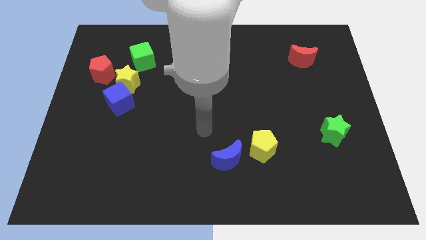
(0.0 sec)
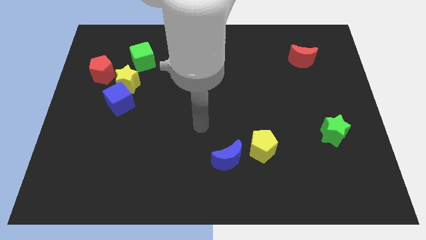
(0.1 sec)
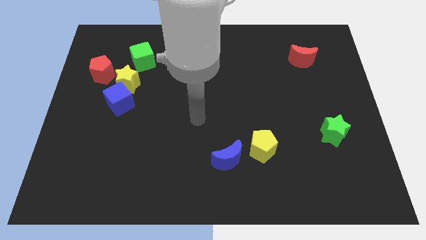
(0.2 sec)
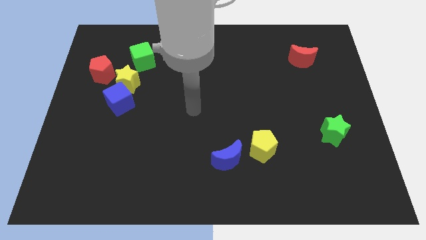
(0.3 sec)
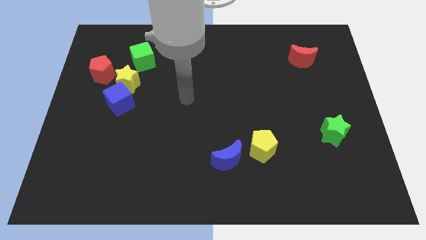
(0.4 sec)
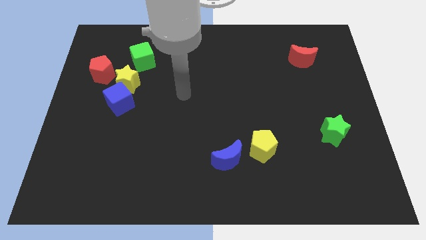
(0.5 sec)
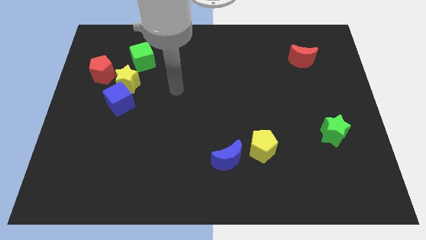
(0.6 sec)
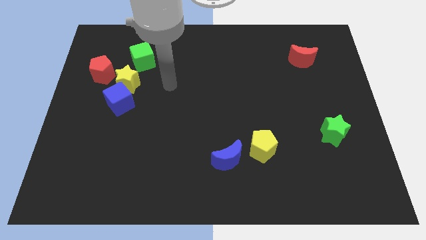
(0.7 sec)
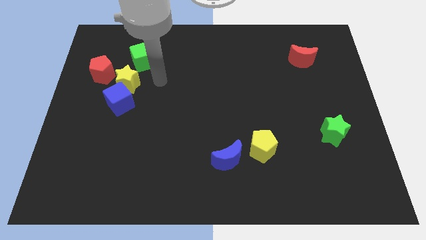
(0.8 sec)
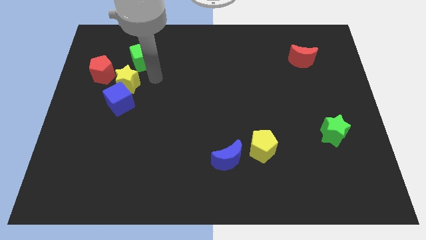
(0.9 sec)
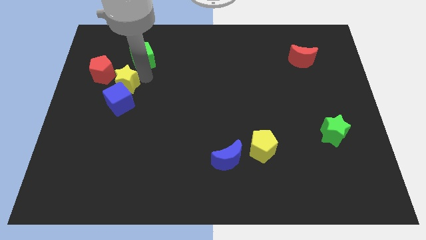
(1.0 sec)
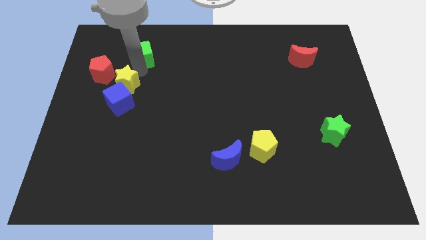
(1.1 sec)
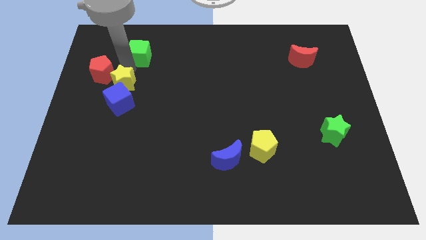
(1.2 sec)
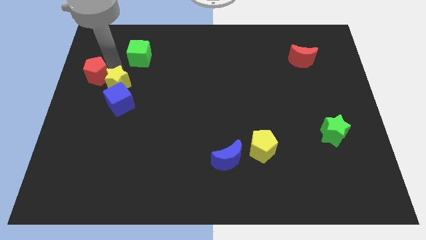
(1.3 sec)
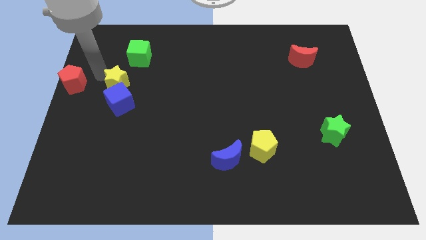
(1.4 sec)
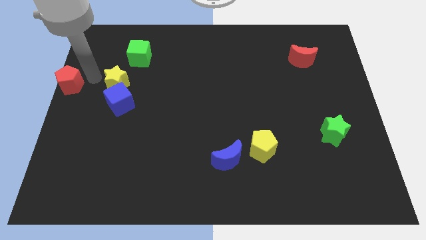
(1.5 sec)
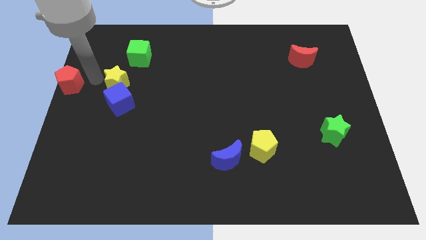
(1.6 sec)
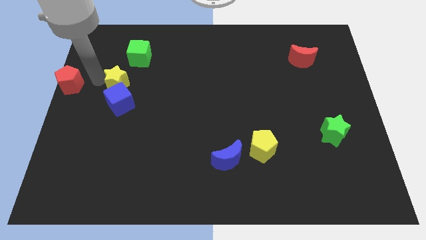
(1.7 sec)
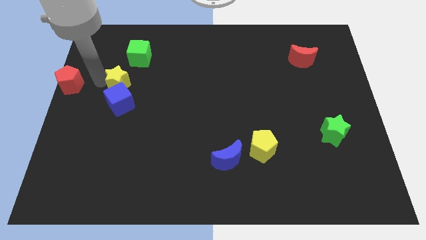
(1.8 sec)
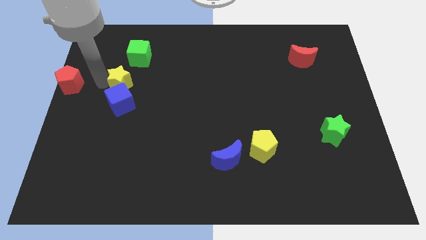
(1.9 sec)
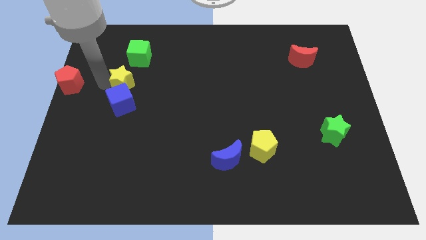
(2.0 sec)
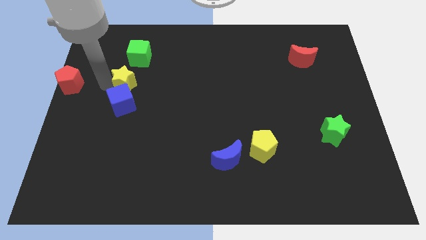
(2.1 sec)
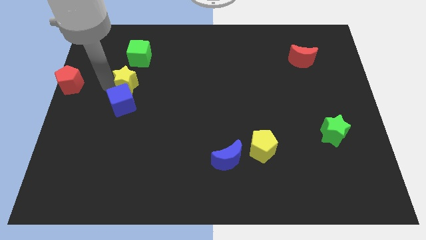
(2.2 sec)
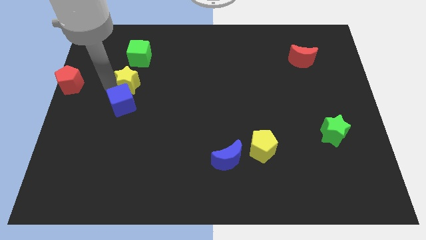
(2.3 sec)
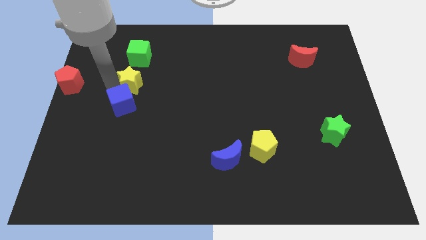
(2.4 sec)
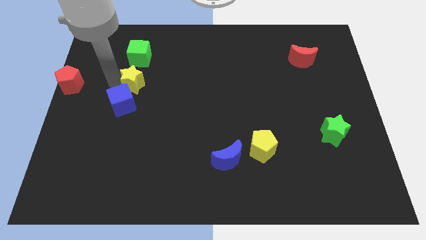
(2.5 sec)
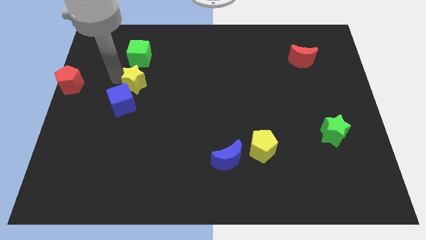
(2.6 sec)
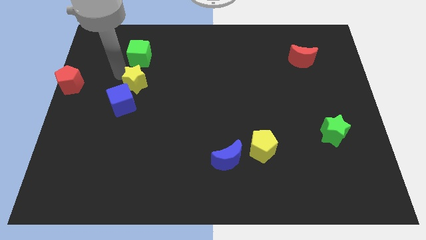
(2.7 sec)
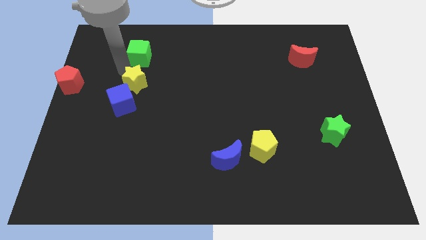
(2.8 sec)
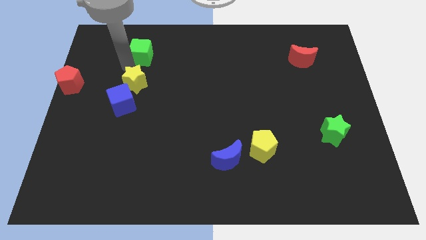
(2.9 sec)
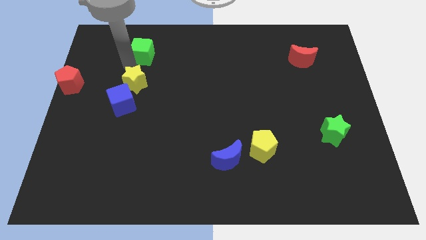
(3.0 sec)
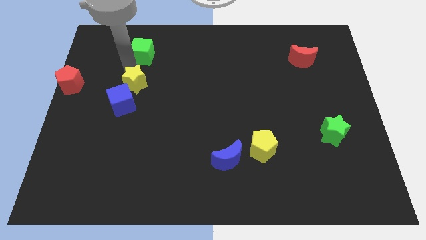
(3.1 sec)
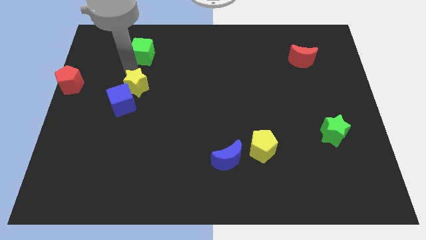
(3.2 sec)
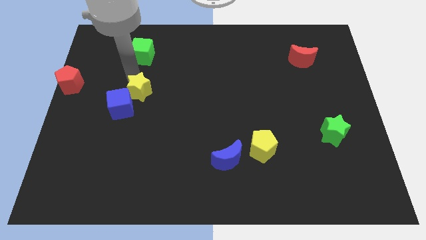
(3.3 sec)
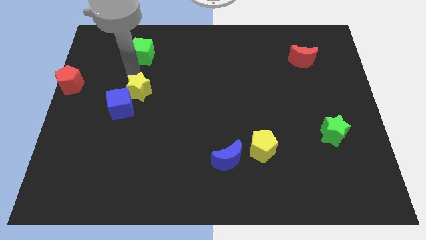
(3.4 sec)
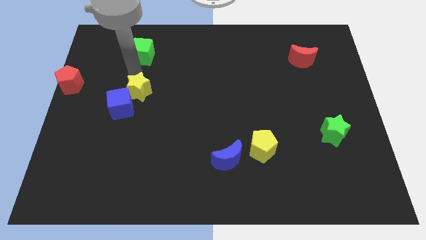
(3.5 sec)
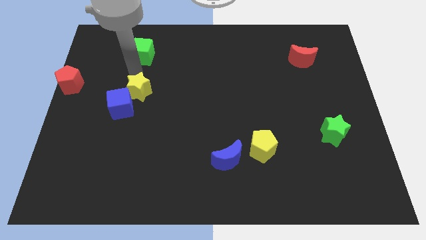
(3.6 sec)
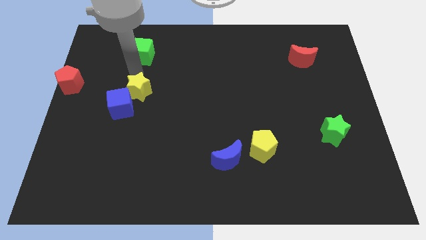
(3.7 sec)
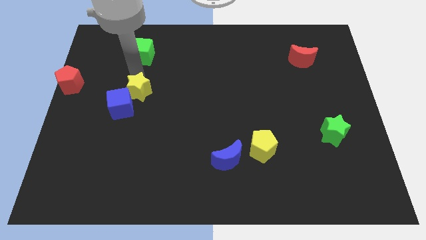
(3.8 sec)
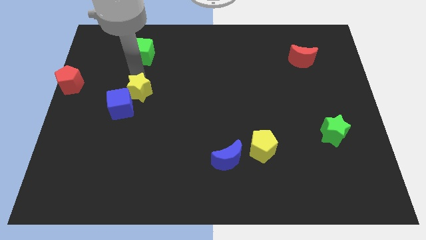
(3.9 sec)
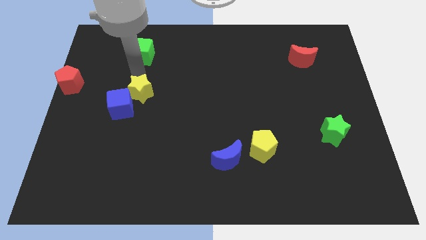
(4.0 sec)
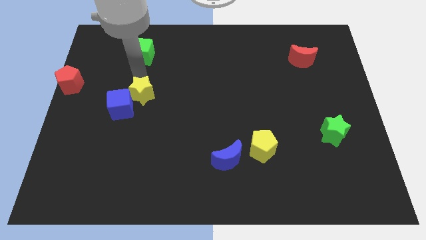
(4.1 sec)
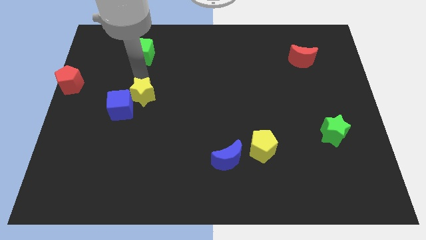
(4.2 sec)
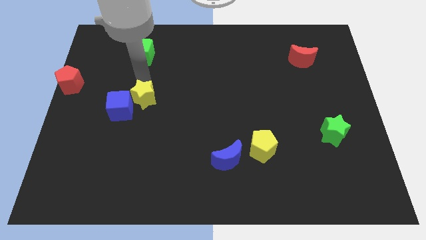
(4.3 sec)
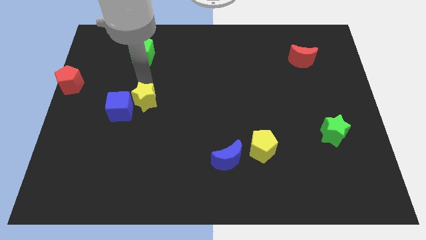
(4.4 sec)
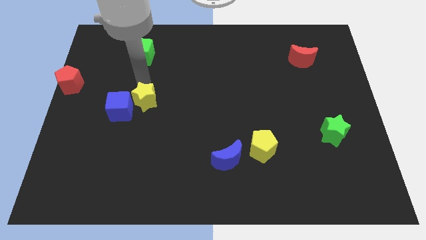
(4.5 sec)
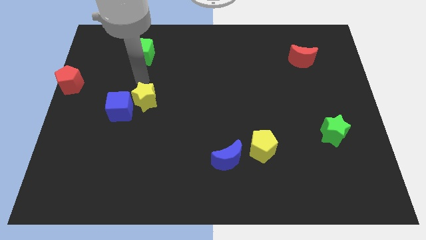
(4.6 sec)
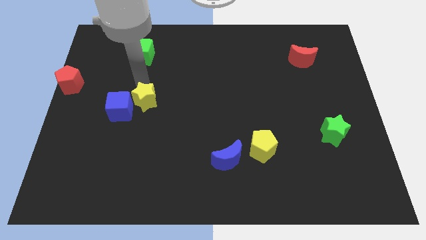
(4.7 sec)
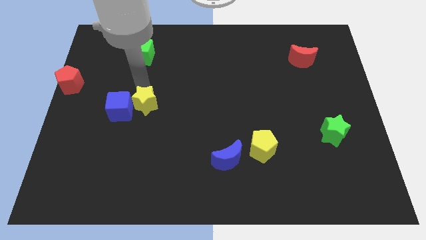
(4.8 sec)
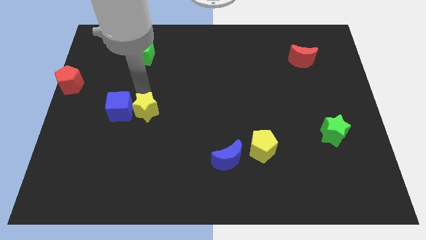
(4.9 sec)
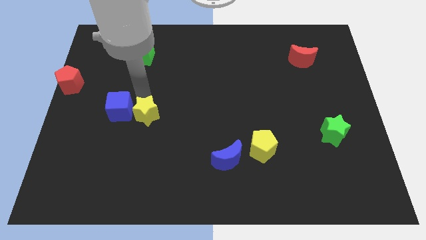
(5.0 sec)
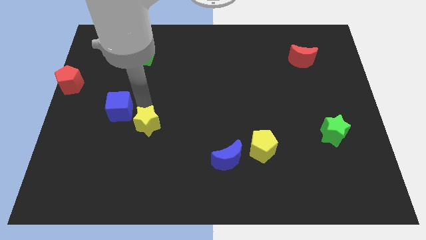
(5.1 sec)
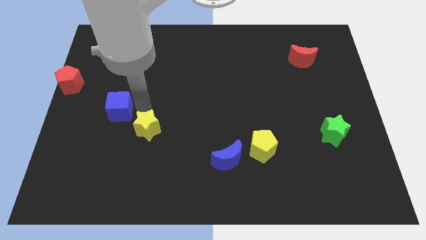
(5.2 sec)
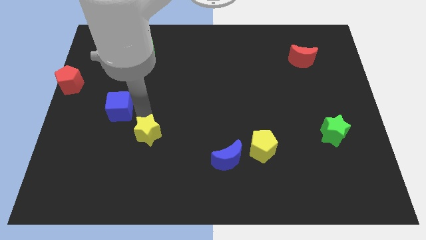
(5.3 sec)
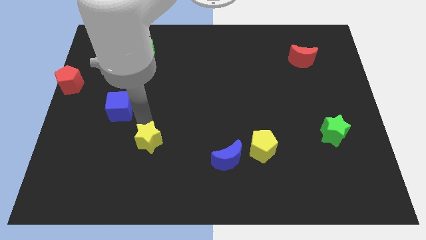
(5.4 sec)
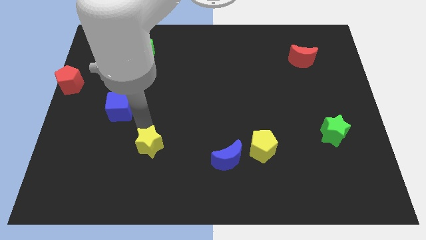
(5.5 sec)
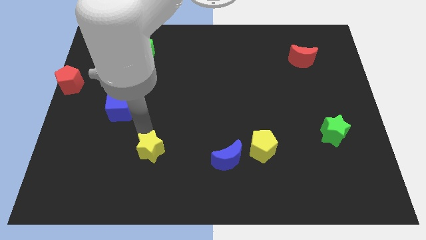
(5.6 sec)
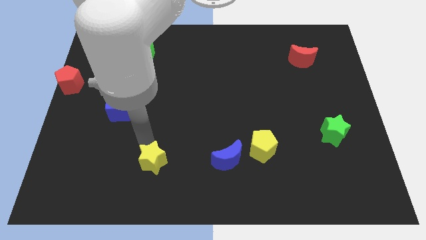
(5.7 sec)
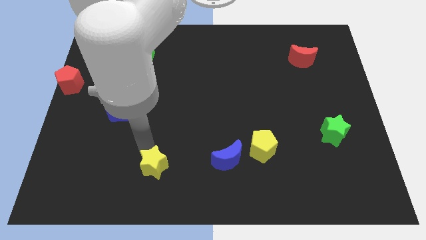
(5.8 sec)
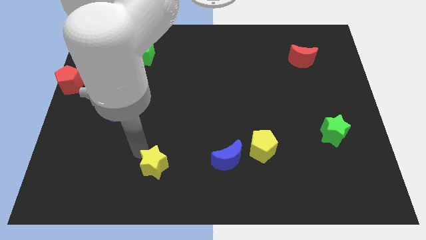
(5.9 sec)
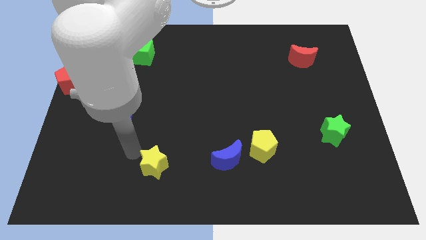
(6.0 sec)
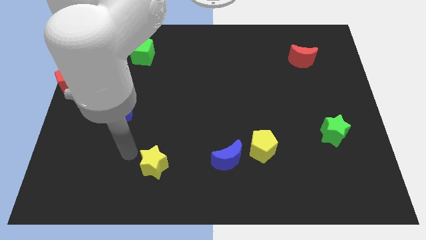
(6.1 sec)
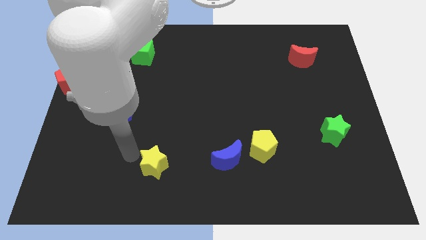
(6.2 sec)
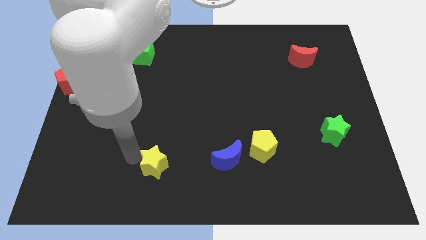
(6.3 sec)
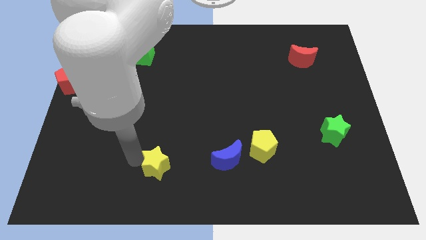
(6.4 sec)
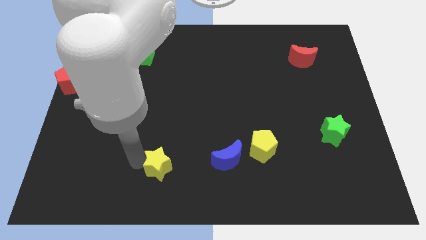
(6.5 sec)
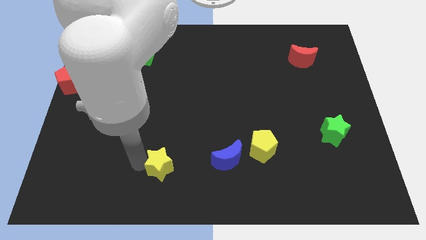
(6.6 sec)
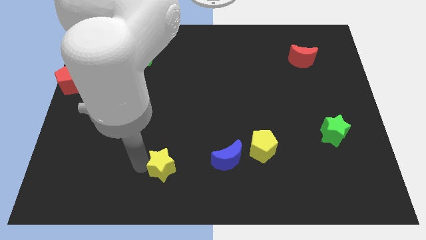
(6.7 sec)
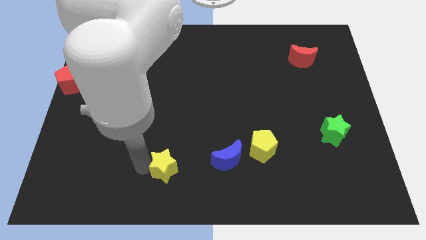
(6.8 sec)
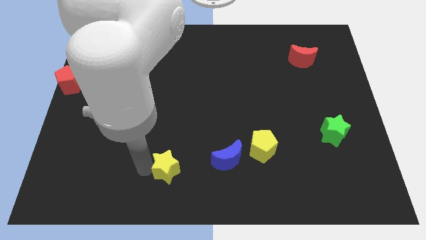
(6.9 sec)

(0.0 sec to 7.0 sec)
put the yellow star to the bottom side

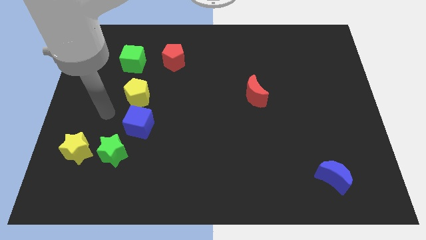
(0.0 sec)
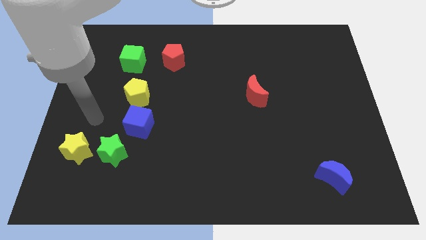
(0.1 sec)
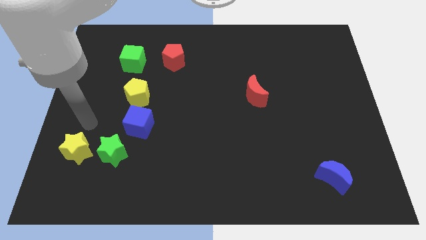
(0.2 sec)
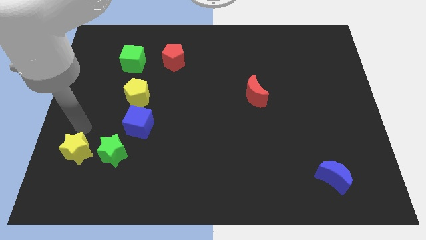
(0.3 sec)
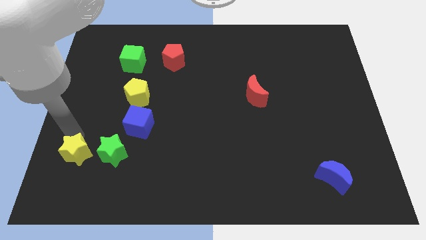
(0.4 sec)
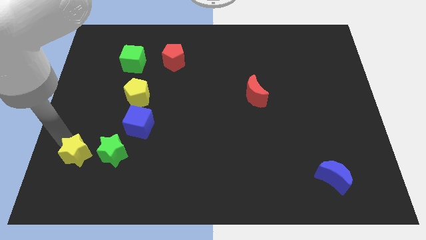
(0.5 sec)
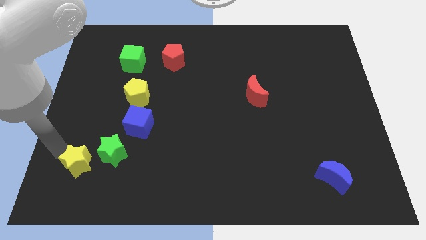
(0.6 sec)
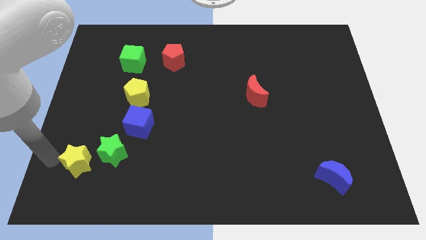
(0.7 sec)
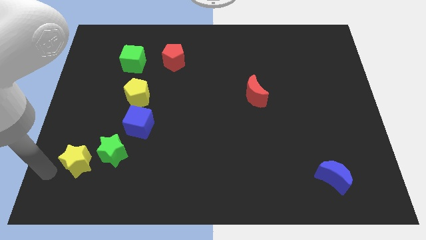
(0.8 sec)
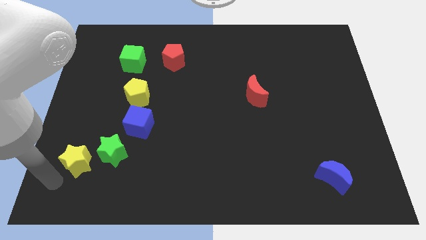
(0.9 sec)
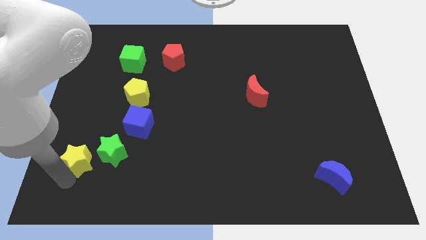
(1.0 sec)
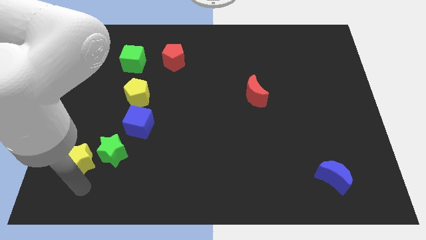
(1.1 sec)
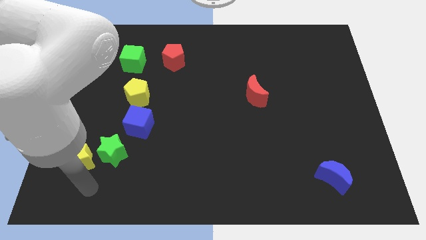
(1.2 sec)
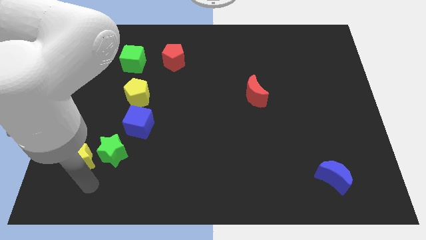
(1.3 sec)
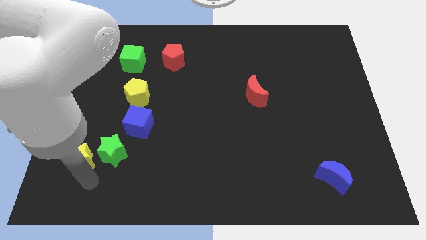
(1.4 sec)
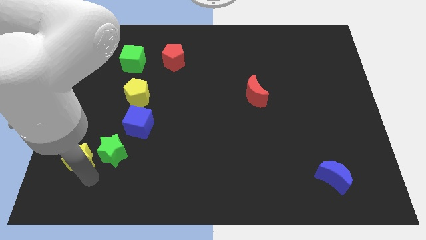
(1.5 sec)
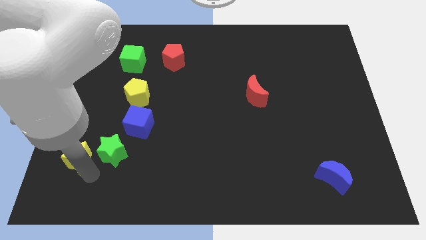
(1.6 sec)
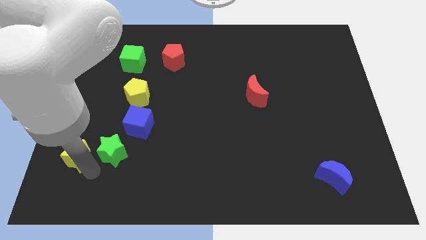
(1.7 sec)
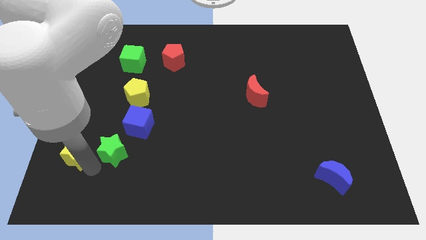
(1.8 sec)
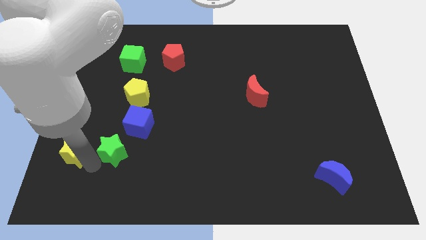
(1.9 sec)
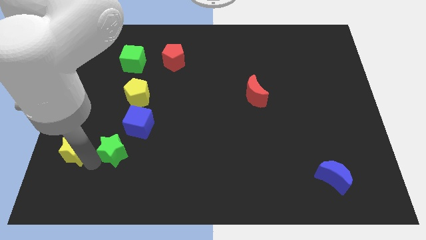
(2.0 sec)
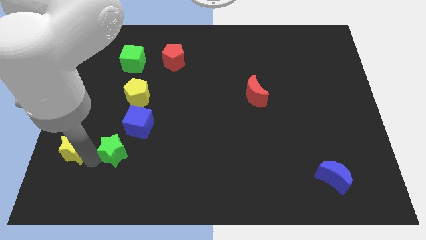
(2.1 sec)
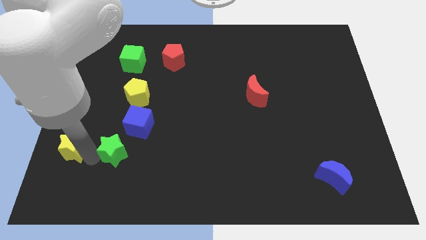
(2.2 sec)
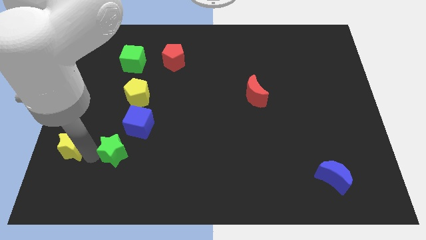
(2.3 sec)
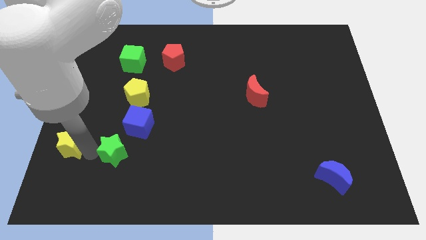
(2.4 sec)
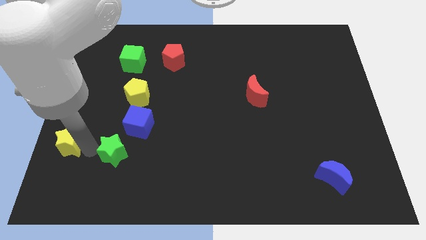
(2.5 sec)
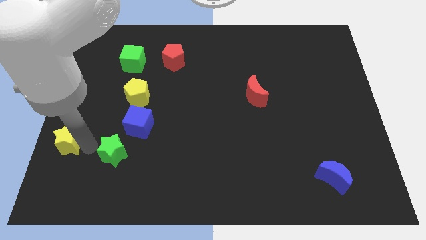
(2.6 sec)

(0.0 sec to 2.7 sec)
put the yellow star to the center left
